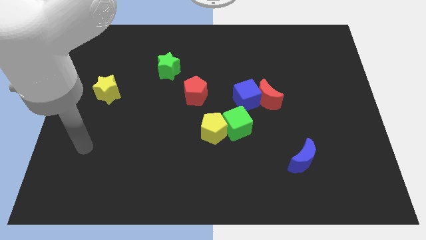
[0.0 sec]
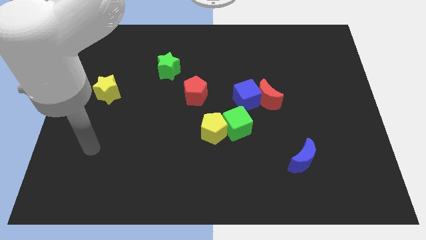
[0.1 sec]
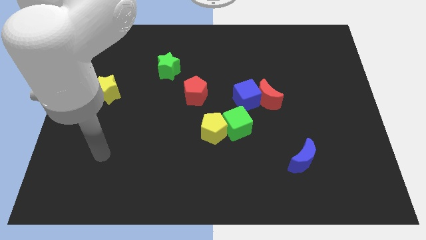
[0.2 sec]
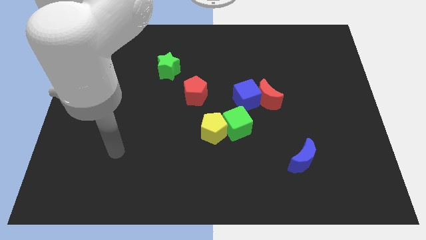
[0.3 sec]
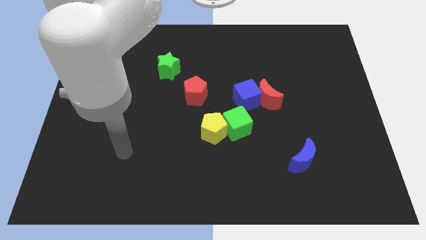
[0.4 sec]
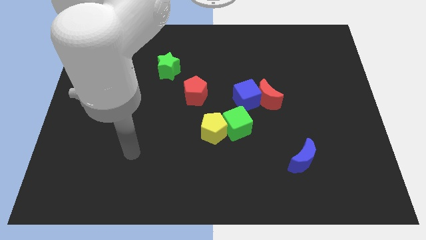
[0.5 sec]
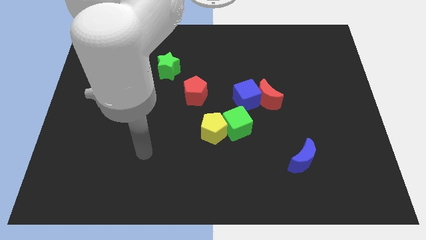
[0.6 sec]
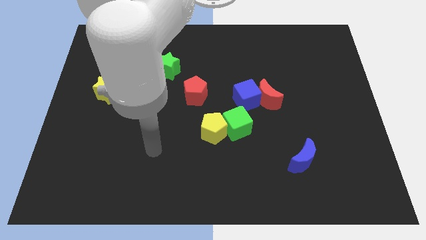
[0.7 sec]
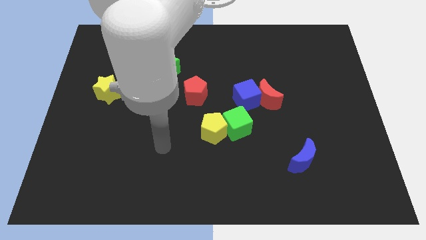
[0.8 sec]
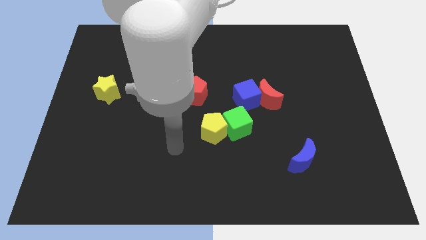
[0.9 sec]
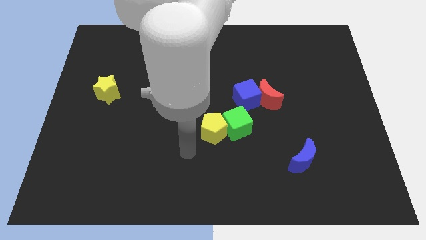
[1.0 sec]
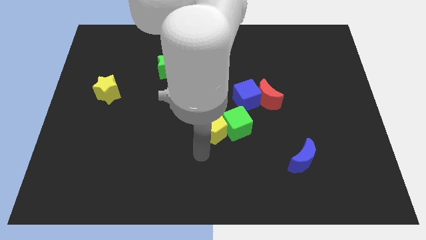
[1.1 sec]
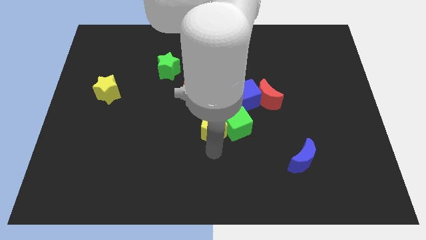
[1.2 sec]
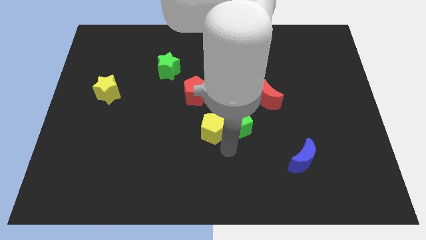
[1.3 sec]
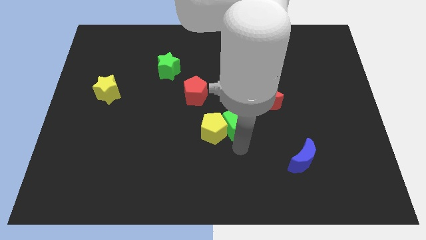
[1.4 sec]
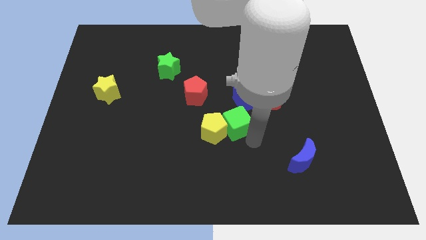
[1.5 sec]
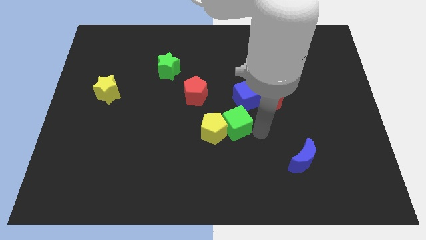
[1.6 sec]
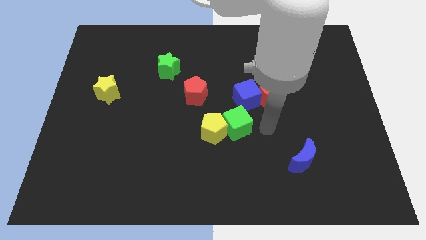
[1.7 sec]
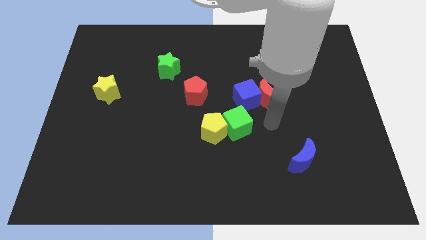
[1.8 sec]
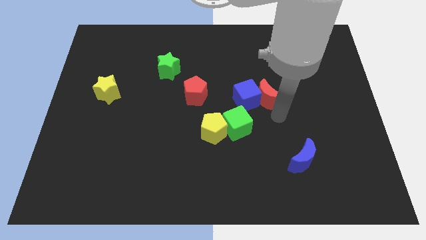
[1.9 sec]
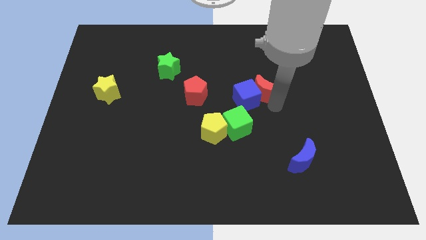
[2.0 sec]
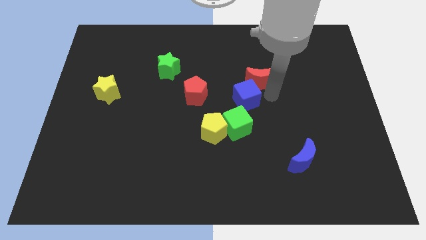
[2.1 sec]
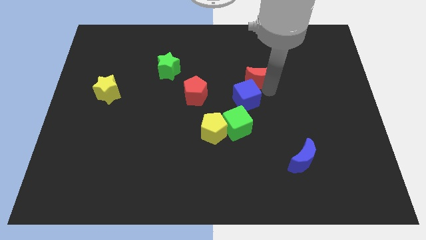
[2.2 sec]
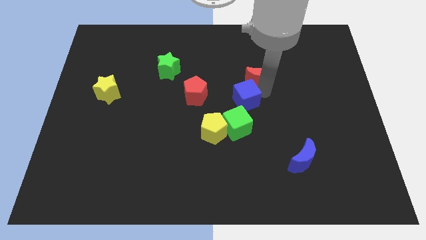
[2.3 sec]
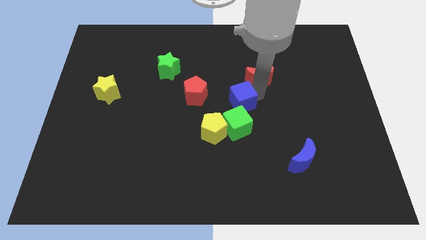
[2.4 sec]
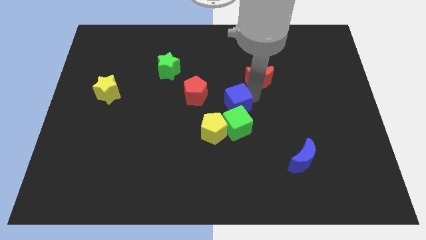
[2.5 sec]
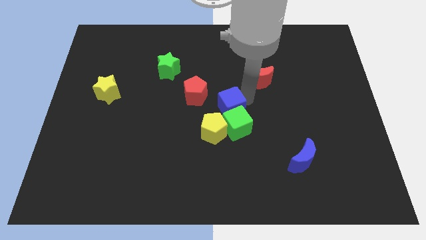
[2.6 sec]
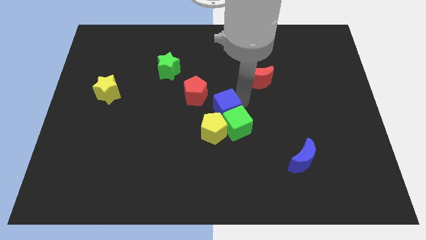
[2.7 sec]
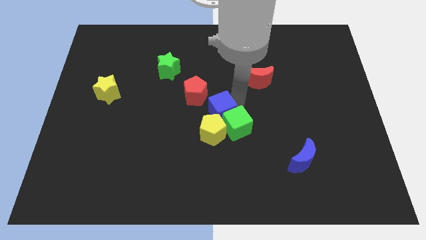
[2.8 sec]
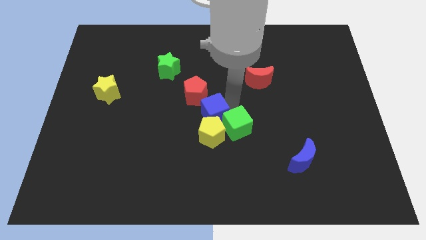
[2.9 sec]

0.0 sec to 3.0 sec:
slide the blue cube somewhat left

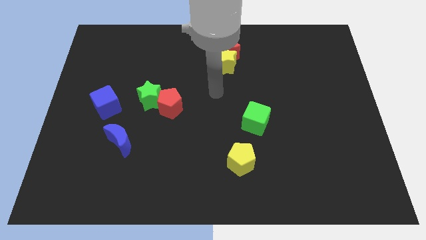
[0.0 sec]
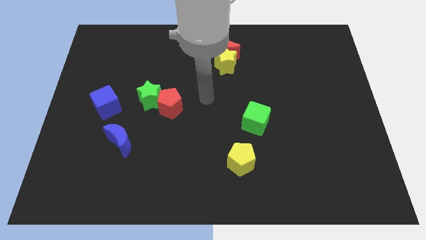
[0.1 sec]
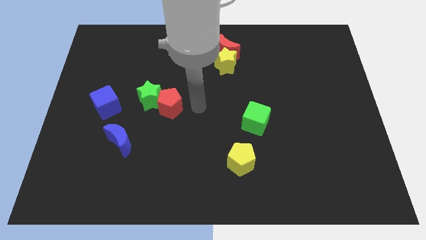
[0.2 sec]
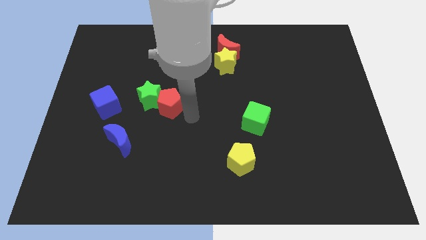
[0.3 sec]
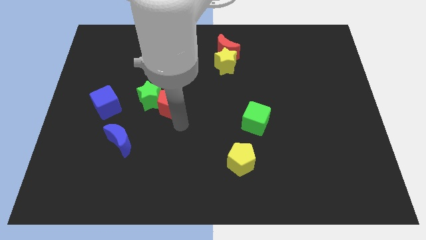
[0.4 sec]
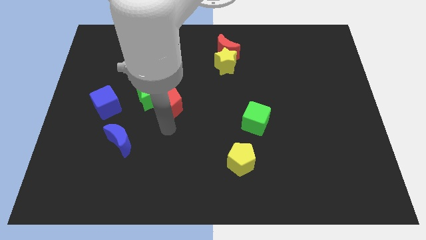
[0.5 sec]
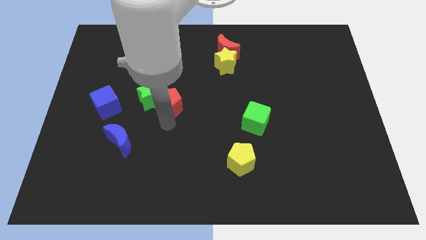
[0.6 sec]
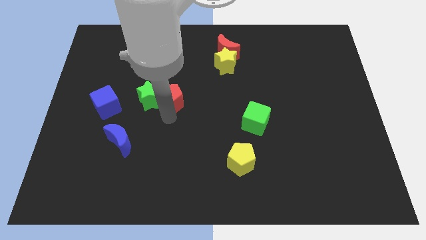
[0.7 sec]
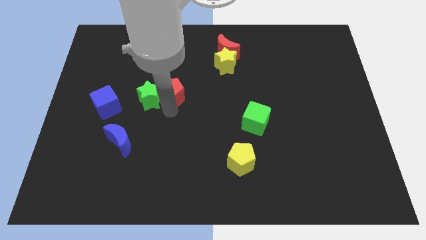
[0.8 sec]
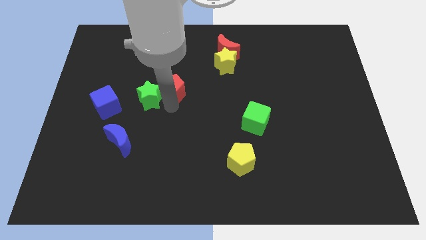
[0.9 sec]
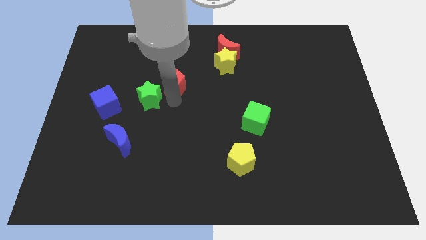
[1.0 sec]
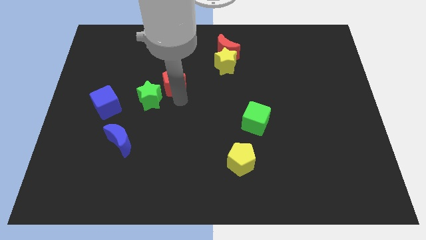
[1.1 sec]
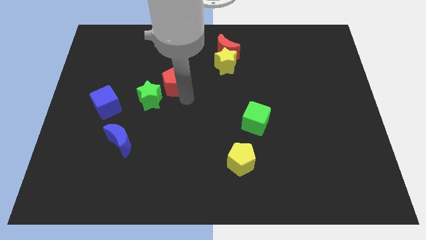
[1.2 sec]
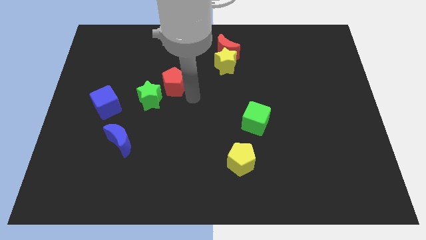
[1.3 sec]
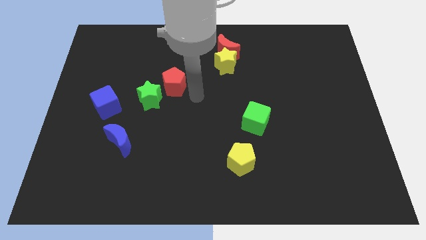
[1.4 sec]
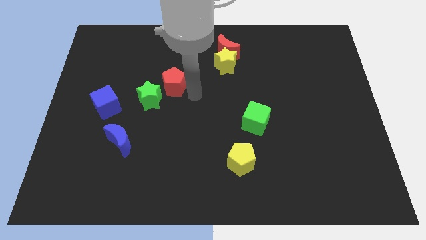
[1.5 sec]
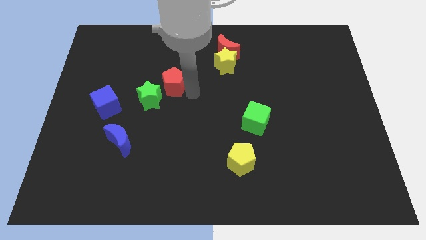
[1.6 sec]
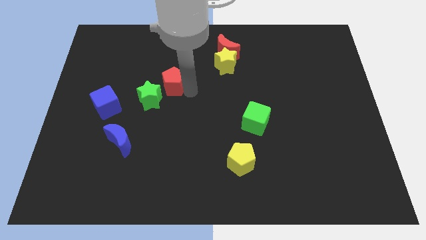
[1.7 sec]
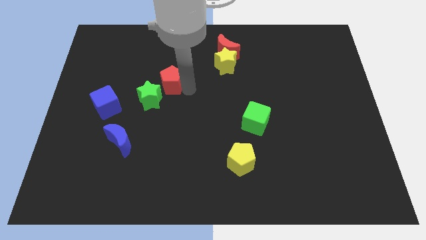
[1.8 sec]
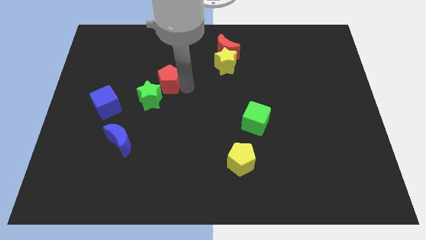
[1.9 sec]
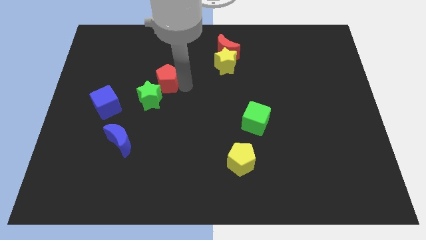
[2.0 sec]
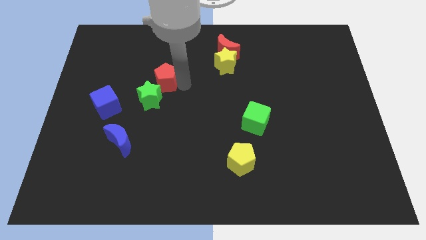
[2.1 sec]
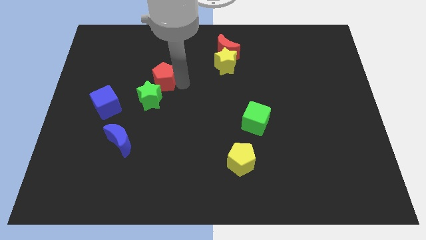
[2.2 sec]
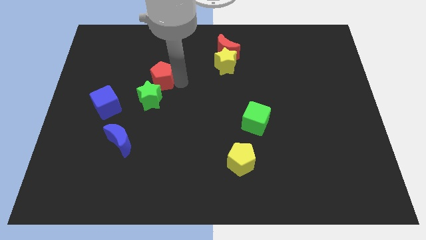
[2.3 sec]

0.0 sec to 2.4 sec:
move the red pentagon somewhat up and then to the left

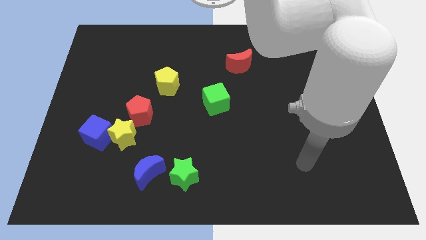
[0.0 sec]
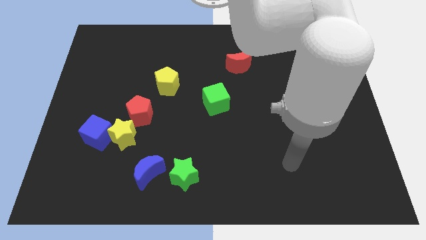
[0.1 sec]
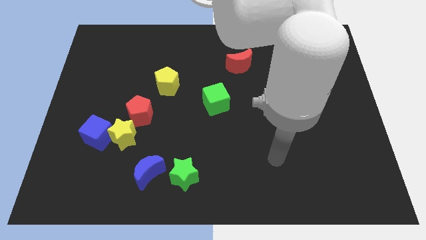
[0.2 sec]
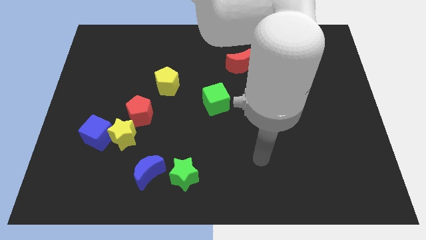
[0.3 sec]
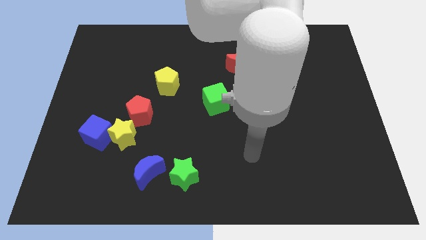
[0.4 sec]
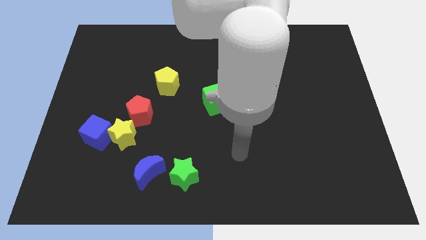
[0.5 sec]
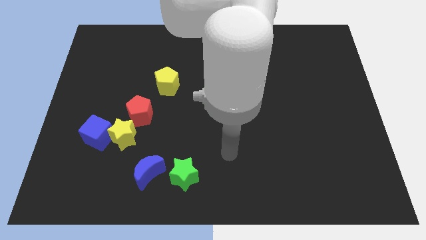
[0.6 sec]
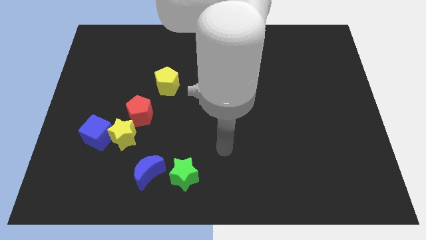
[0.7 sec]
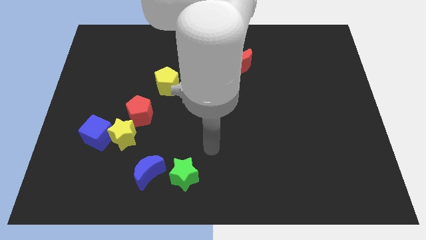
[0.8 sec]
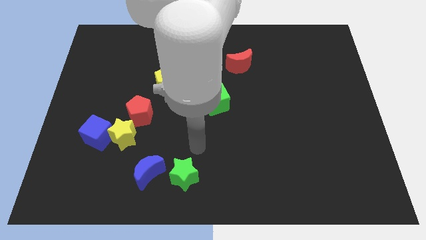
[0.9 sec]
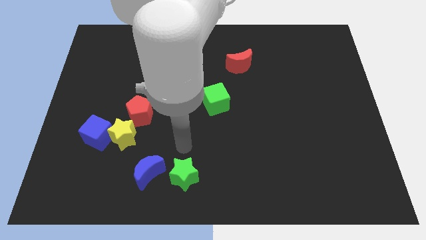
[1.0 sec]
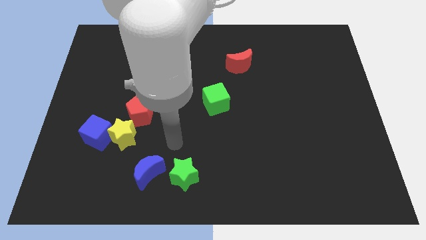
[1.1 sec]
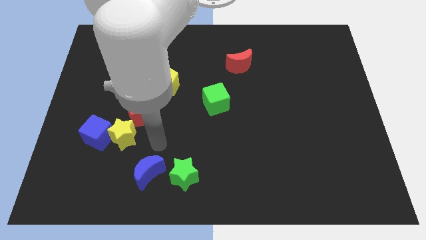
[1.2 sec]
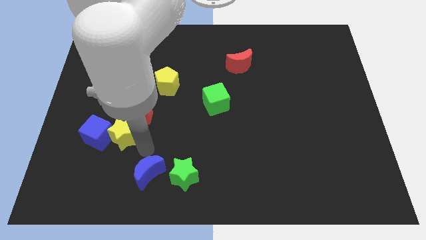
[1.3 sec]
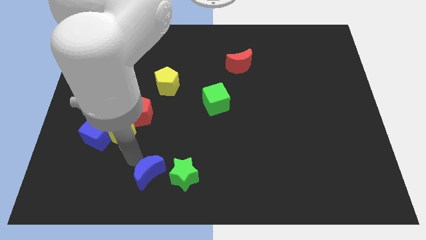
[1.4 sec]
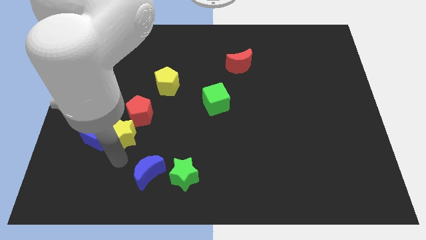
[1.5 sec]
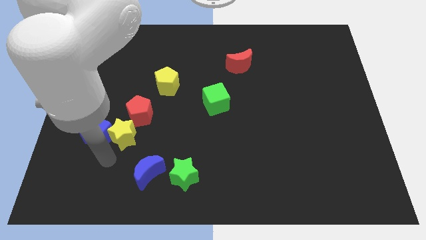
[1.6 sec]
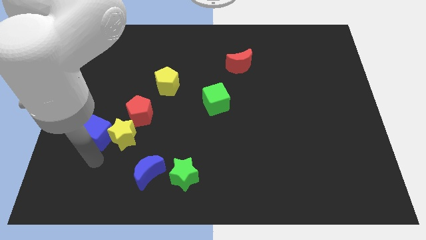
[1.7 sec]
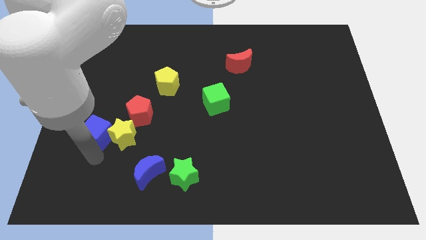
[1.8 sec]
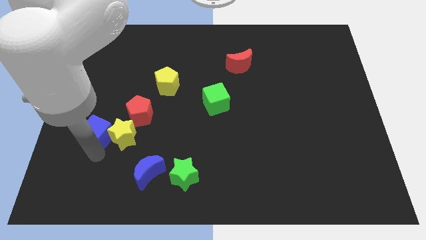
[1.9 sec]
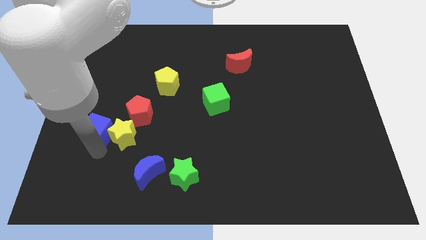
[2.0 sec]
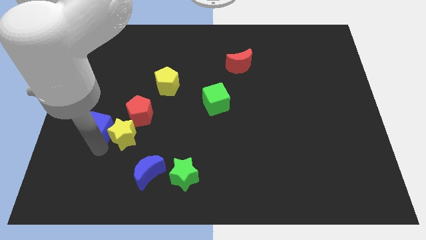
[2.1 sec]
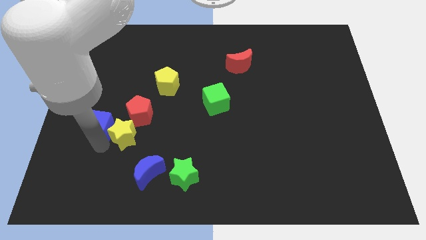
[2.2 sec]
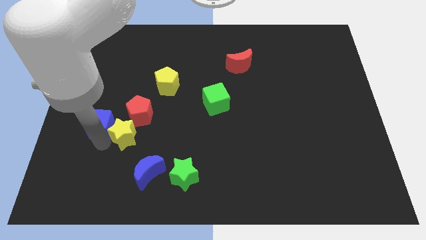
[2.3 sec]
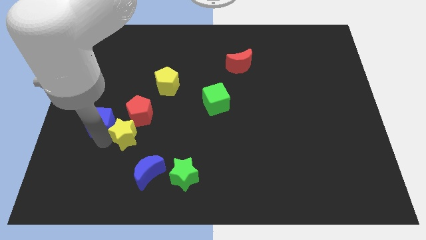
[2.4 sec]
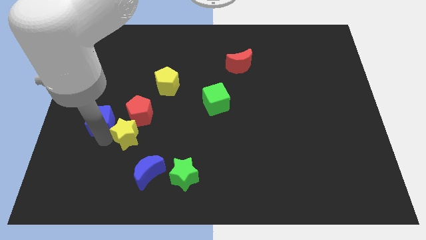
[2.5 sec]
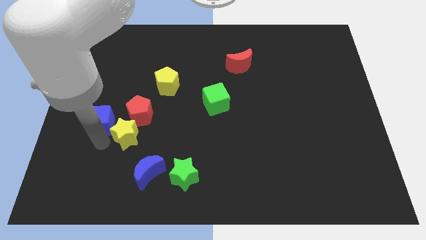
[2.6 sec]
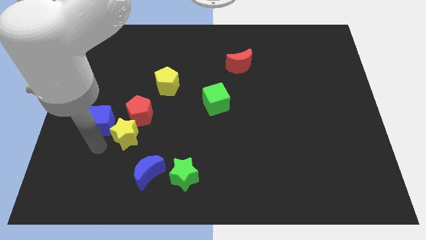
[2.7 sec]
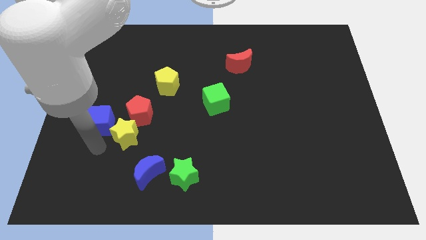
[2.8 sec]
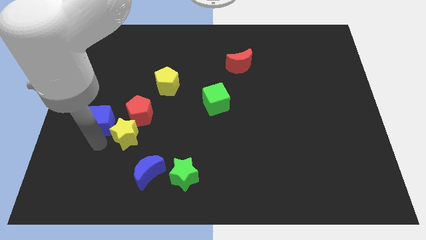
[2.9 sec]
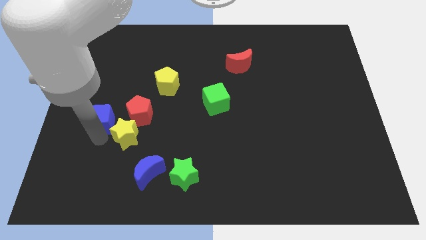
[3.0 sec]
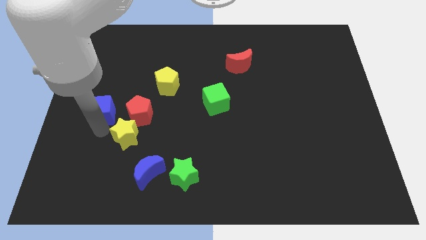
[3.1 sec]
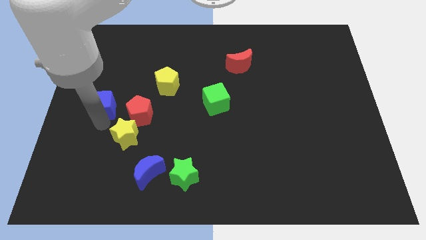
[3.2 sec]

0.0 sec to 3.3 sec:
push the blue cube slightly up
